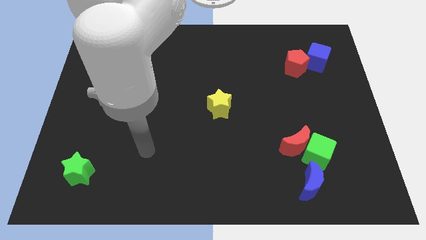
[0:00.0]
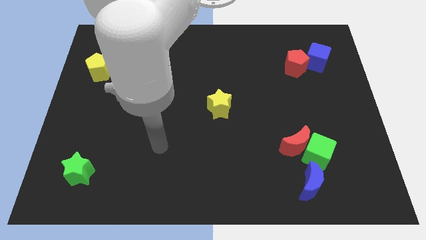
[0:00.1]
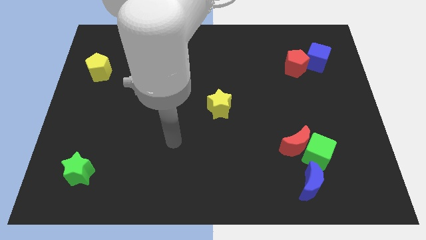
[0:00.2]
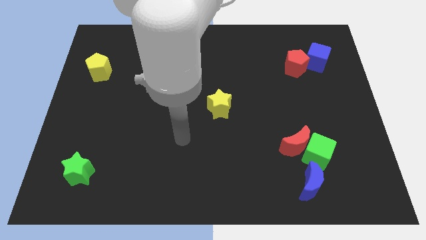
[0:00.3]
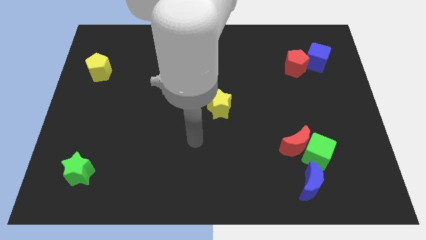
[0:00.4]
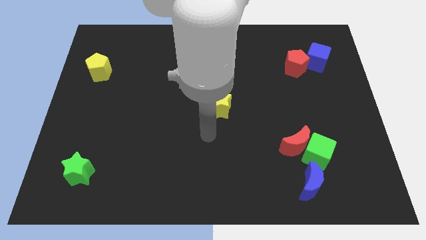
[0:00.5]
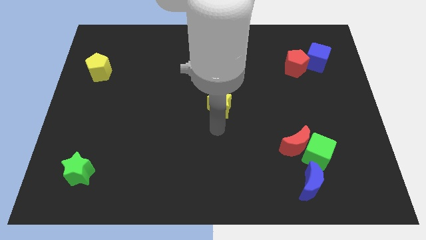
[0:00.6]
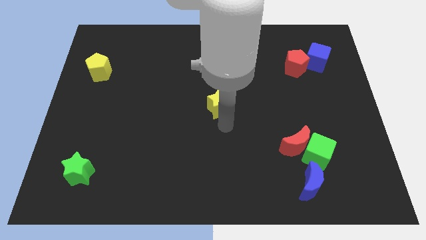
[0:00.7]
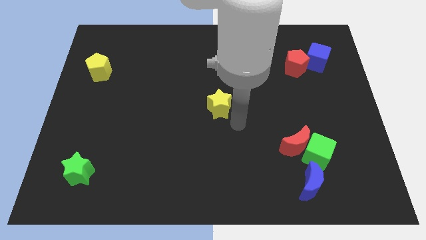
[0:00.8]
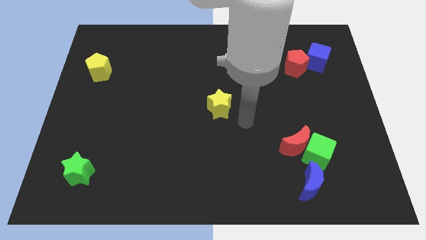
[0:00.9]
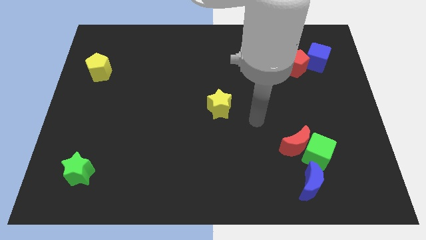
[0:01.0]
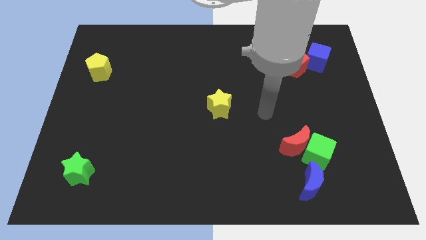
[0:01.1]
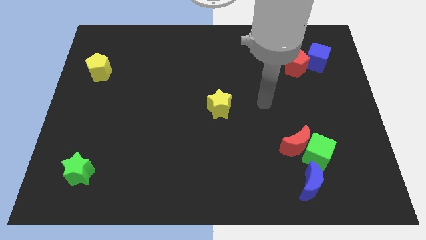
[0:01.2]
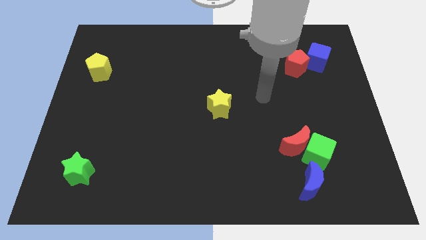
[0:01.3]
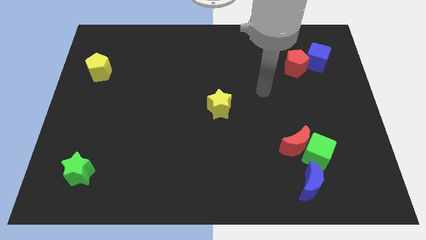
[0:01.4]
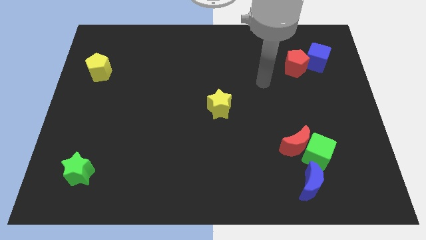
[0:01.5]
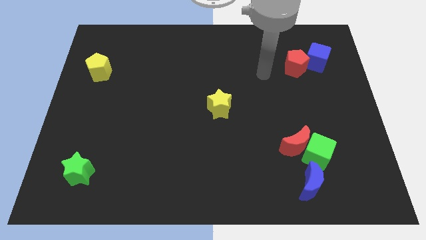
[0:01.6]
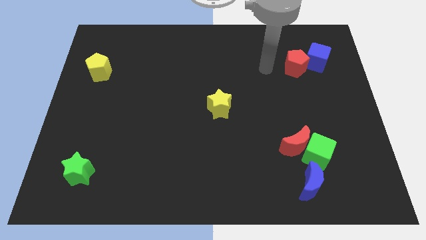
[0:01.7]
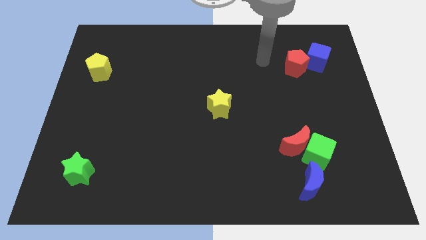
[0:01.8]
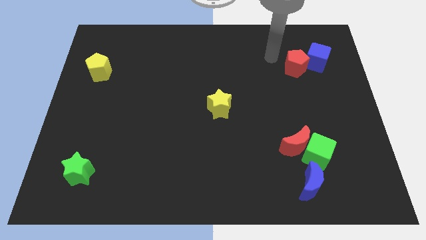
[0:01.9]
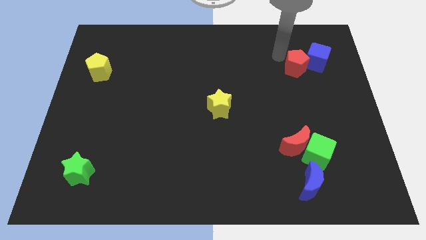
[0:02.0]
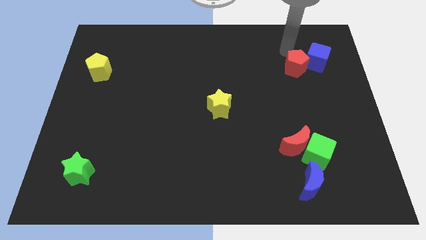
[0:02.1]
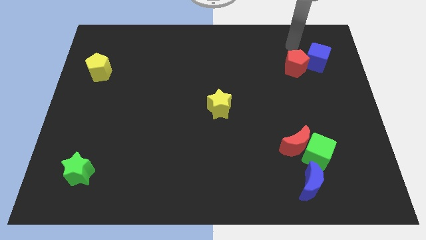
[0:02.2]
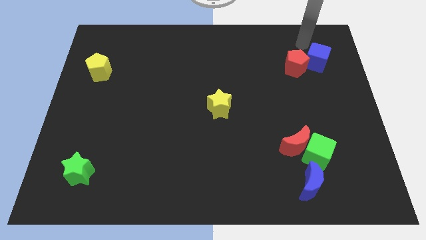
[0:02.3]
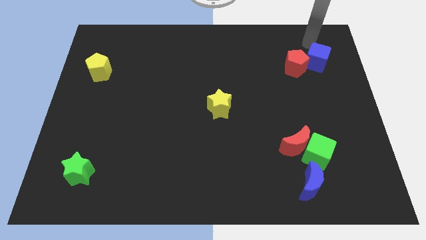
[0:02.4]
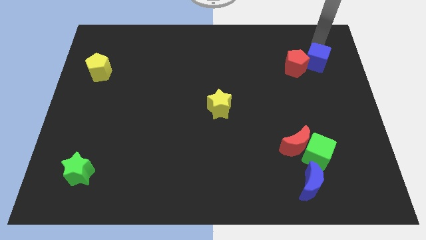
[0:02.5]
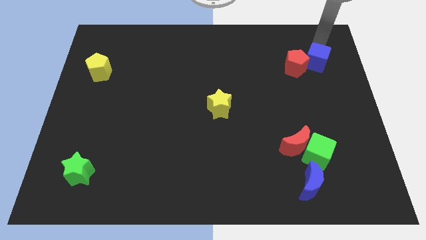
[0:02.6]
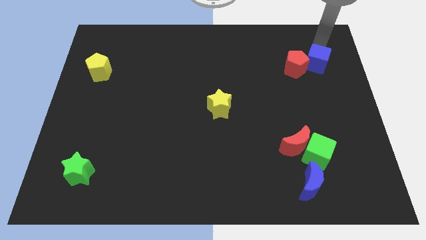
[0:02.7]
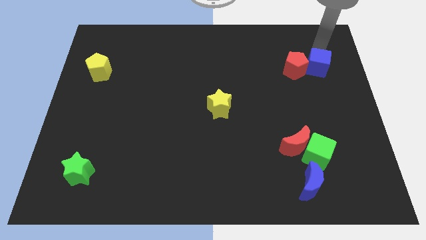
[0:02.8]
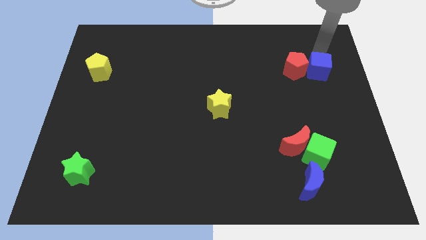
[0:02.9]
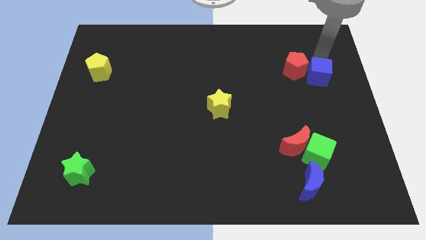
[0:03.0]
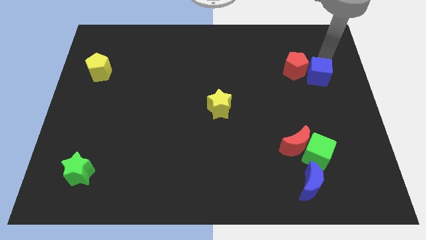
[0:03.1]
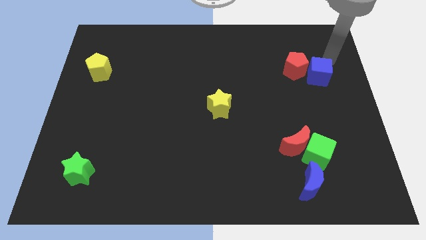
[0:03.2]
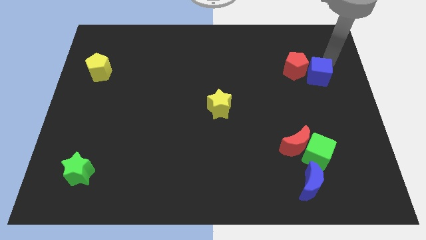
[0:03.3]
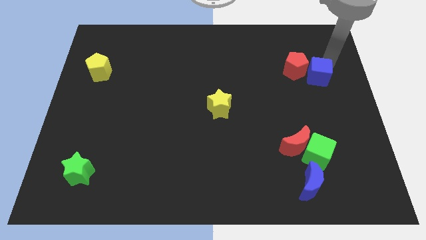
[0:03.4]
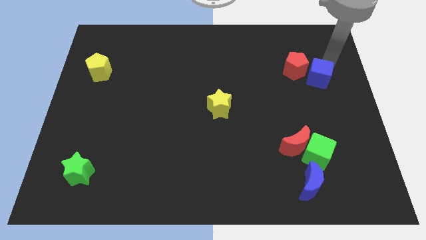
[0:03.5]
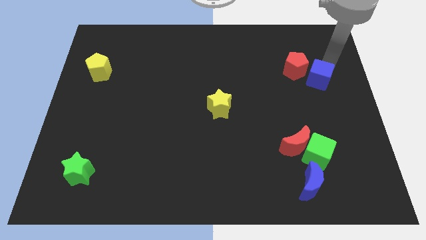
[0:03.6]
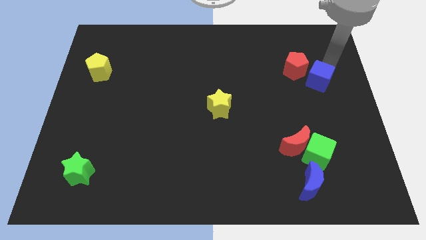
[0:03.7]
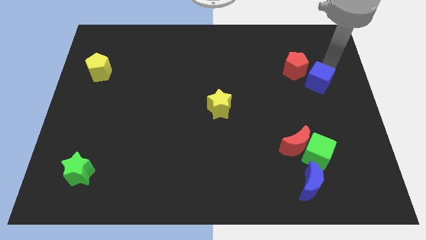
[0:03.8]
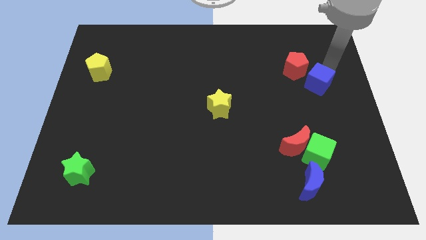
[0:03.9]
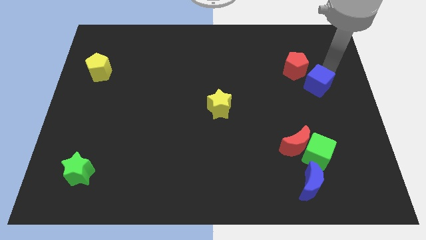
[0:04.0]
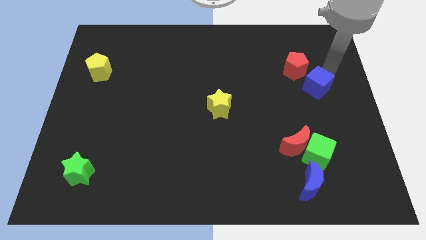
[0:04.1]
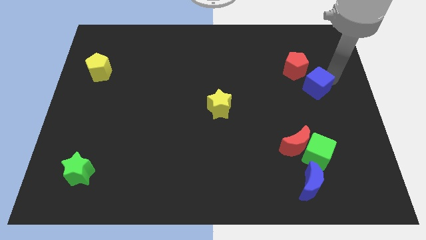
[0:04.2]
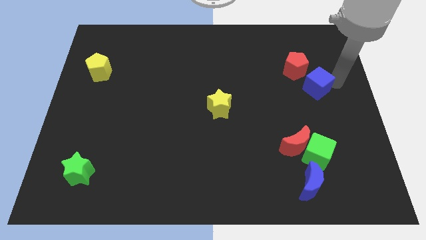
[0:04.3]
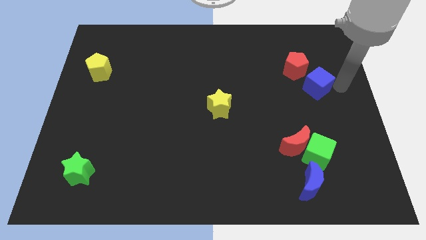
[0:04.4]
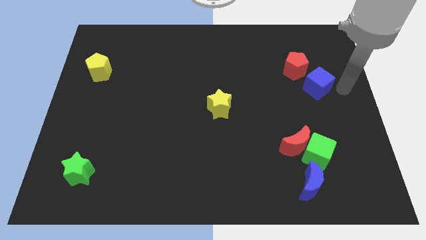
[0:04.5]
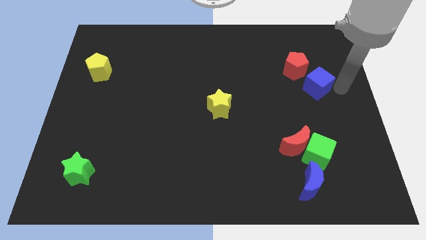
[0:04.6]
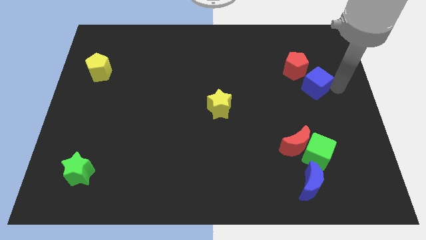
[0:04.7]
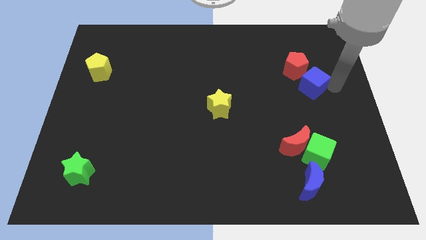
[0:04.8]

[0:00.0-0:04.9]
slightly slide the blue cube downwards and left

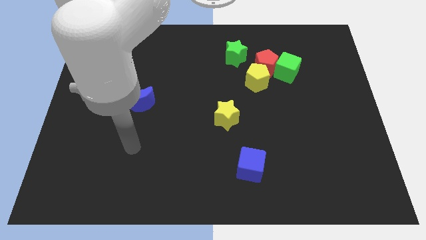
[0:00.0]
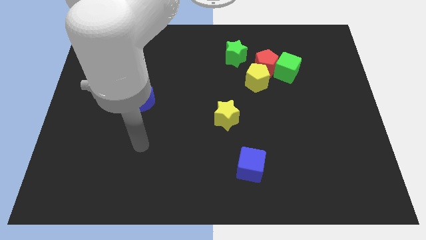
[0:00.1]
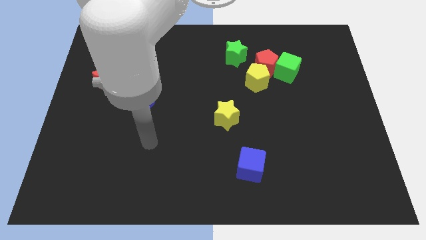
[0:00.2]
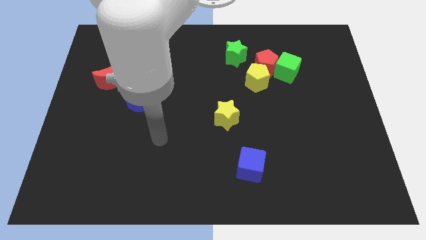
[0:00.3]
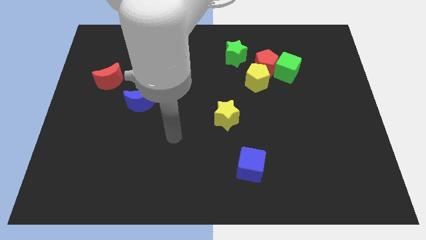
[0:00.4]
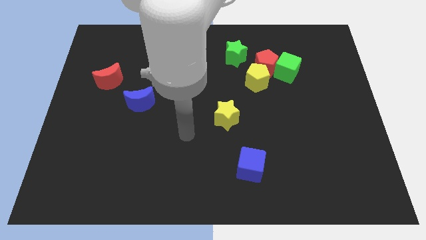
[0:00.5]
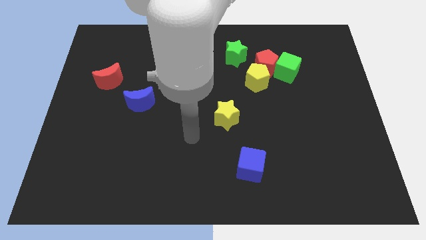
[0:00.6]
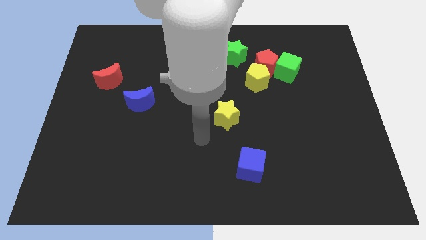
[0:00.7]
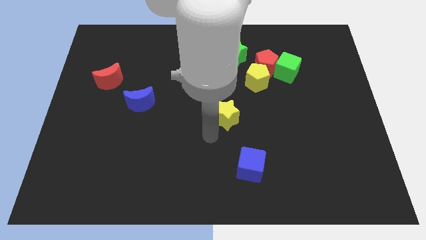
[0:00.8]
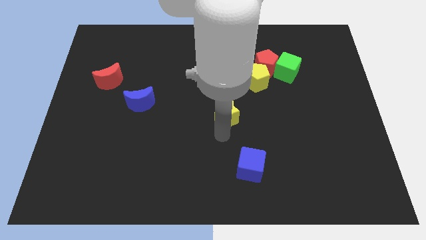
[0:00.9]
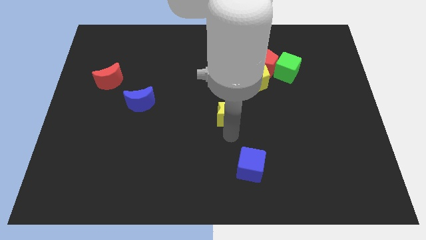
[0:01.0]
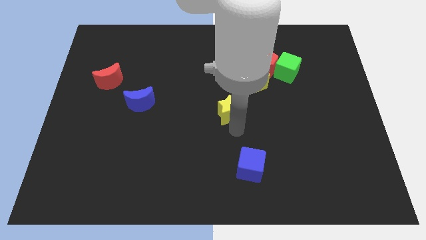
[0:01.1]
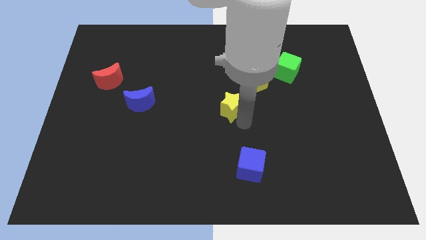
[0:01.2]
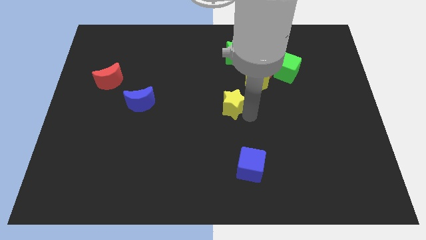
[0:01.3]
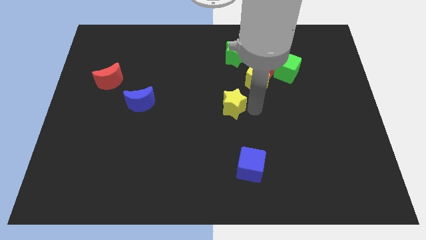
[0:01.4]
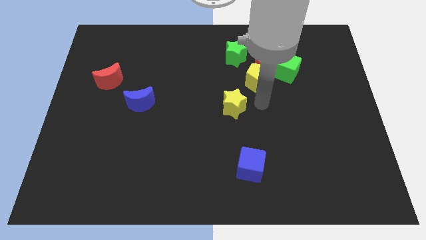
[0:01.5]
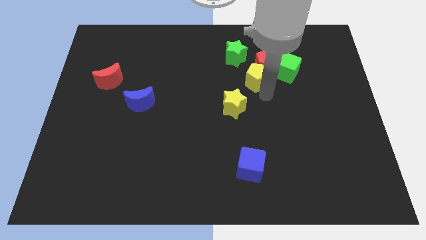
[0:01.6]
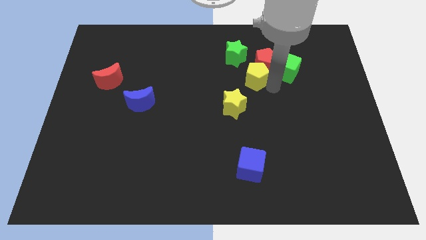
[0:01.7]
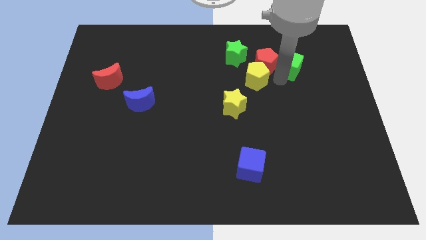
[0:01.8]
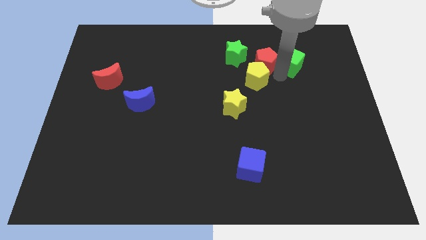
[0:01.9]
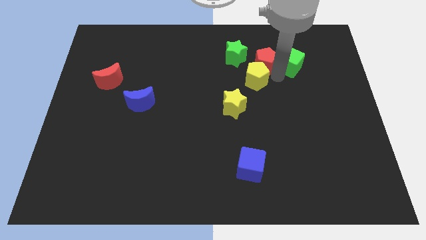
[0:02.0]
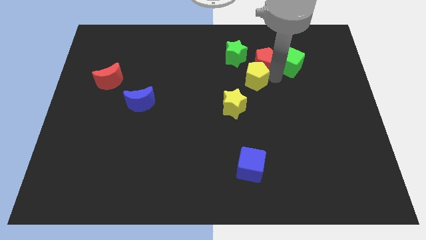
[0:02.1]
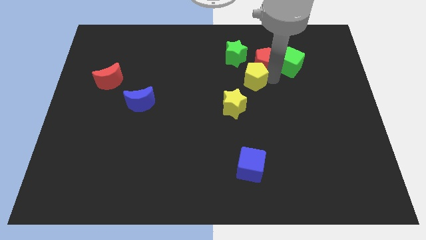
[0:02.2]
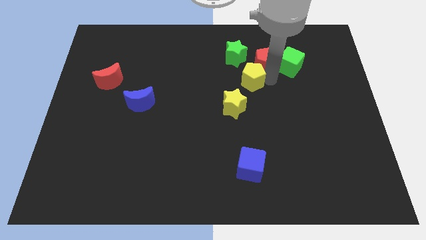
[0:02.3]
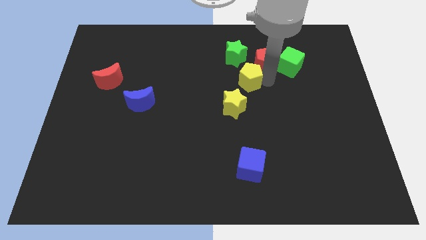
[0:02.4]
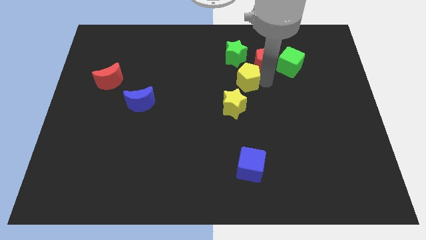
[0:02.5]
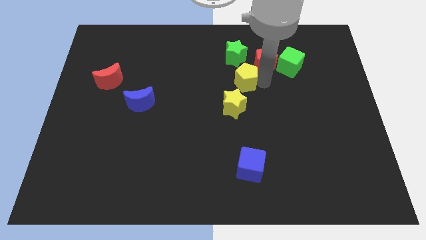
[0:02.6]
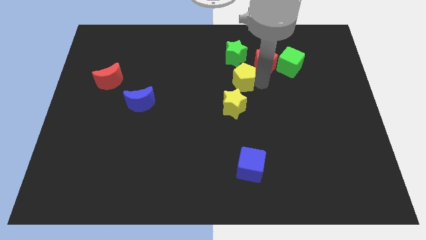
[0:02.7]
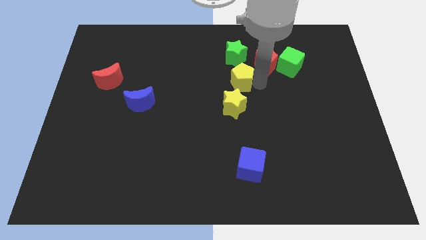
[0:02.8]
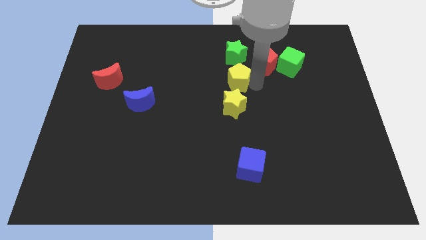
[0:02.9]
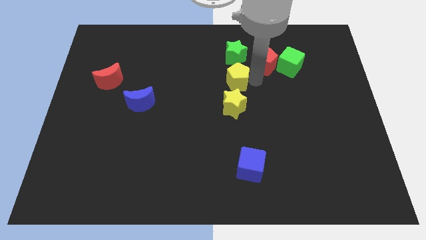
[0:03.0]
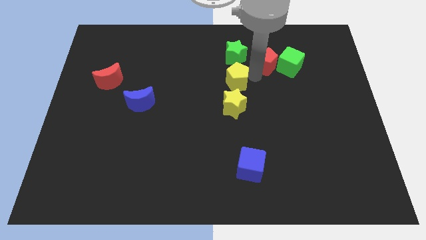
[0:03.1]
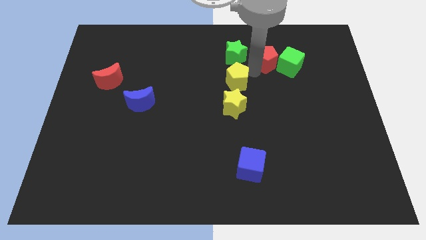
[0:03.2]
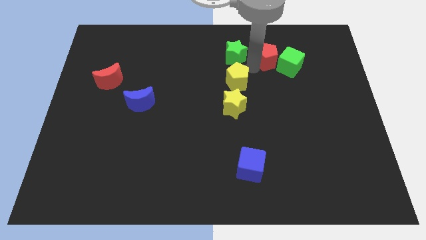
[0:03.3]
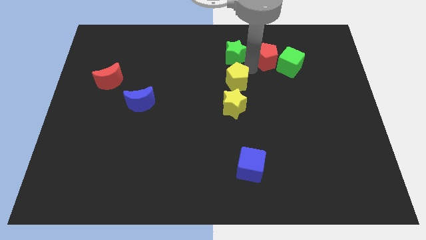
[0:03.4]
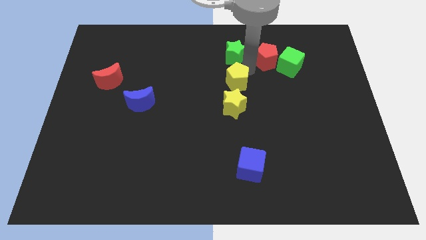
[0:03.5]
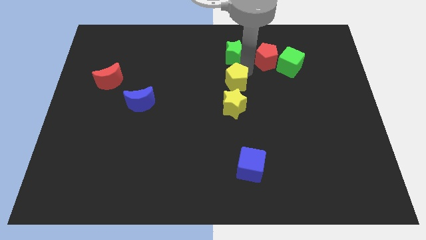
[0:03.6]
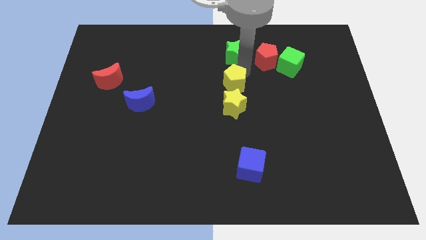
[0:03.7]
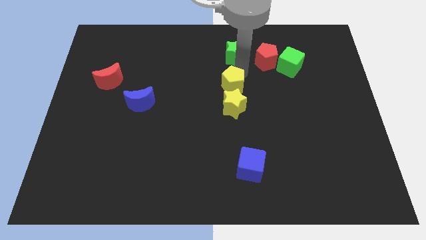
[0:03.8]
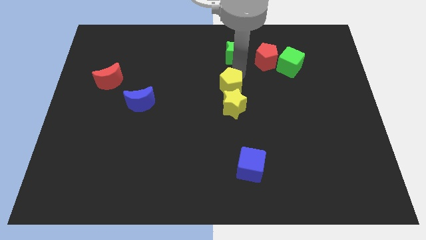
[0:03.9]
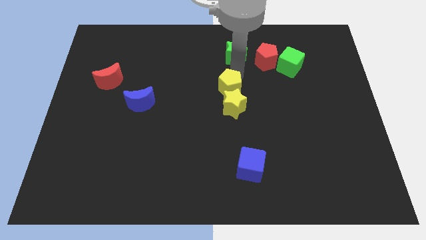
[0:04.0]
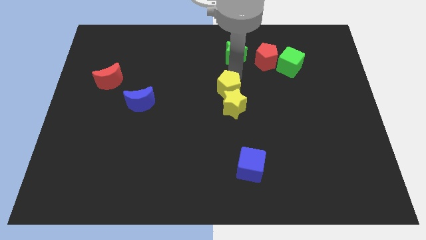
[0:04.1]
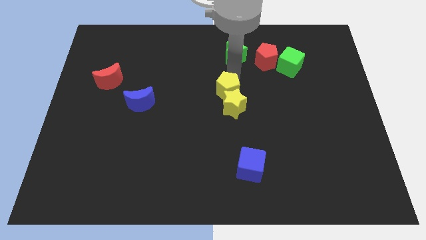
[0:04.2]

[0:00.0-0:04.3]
slightly move the yellow pentagon down and to the left
